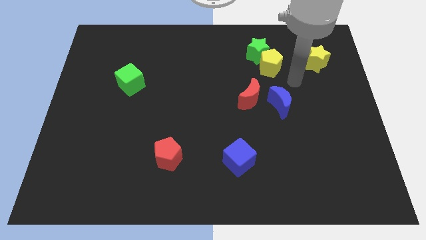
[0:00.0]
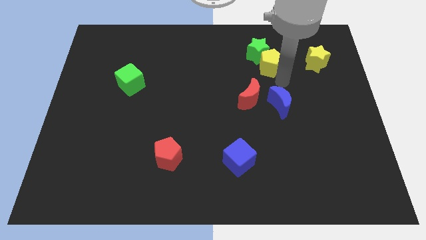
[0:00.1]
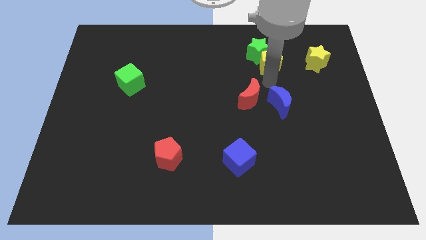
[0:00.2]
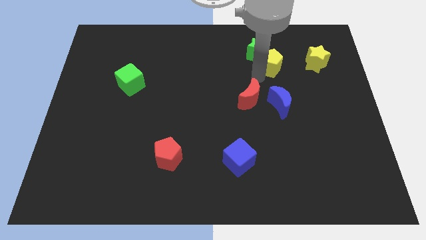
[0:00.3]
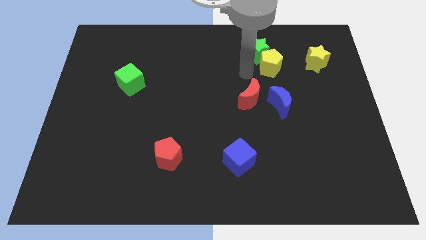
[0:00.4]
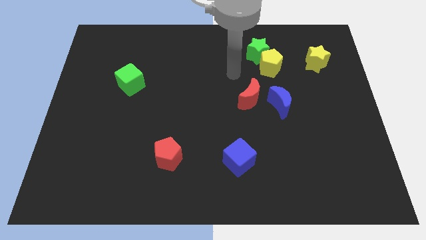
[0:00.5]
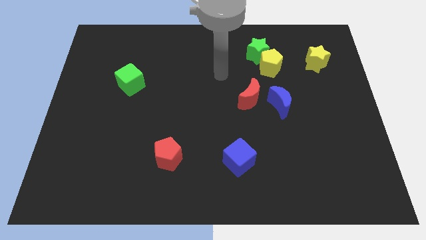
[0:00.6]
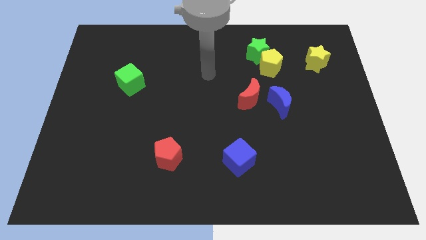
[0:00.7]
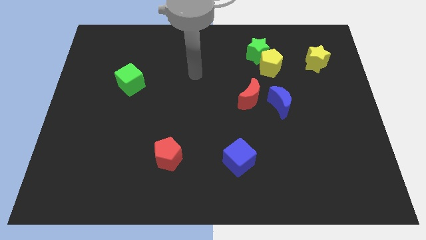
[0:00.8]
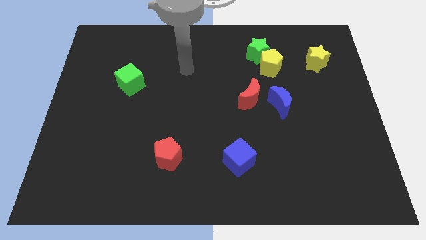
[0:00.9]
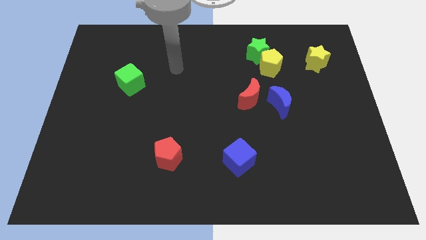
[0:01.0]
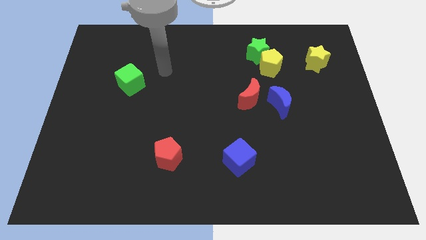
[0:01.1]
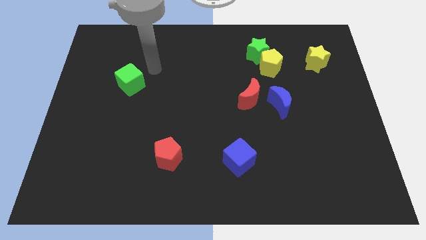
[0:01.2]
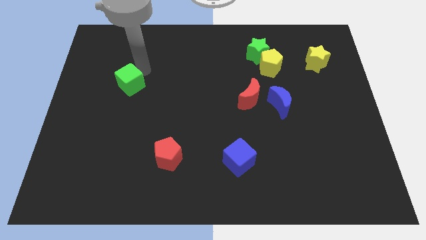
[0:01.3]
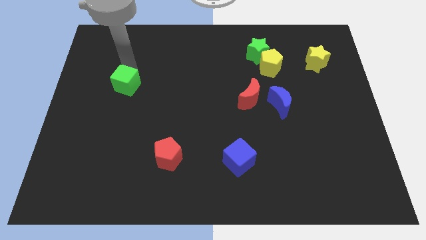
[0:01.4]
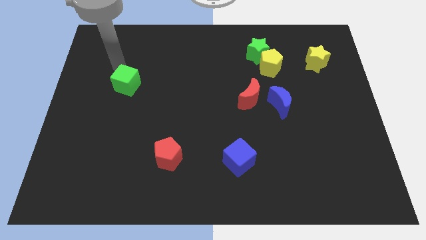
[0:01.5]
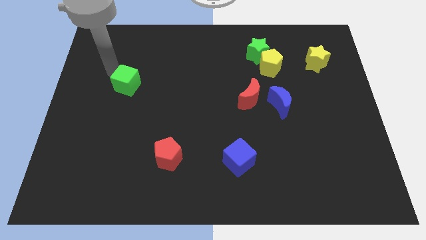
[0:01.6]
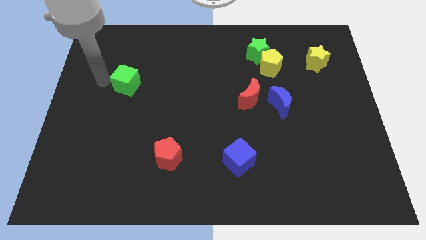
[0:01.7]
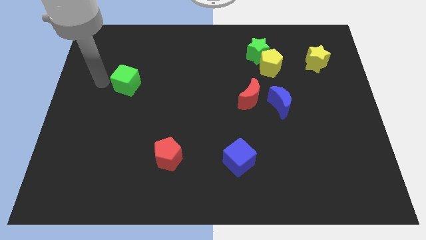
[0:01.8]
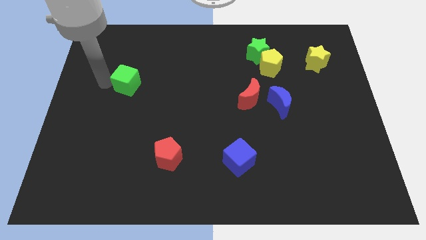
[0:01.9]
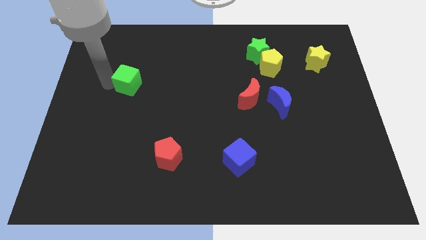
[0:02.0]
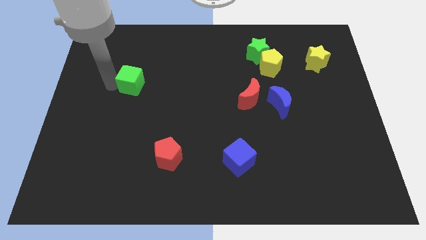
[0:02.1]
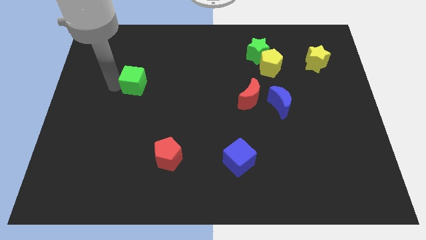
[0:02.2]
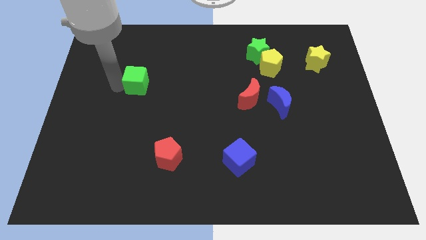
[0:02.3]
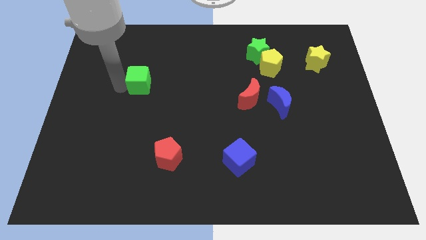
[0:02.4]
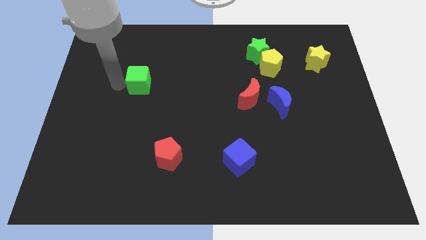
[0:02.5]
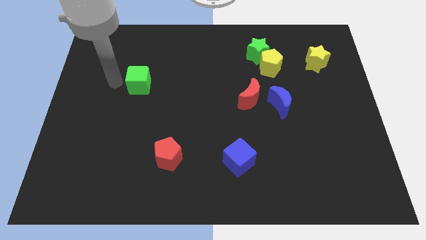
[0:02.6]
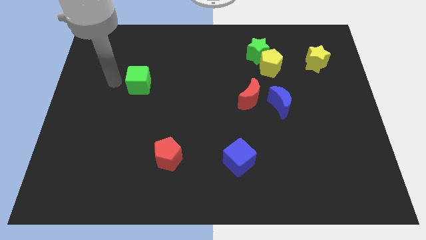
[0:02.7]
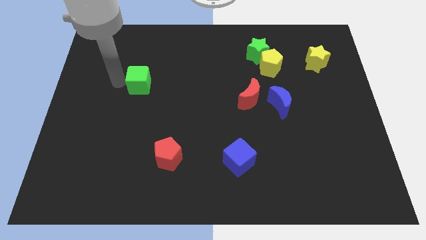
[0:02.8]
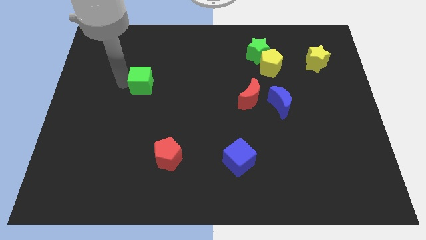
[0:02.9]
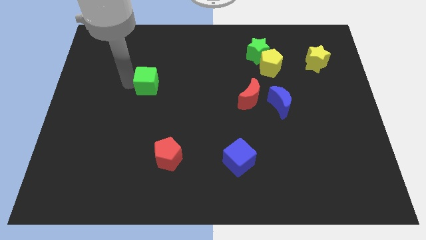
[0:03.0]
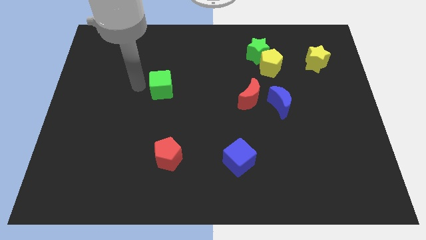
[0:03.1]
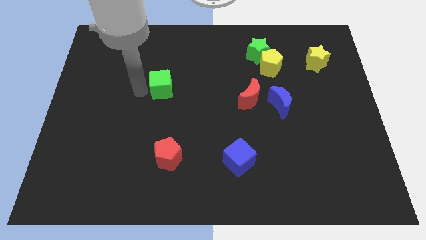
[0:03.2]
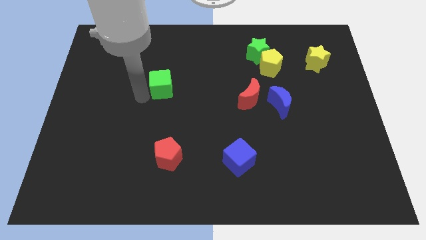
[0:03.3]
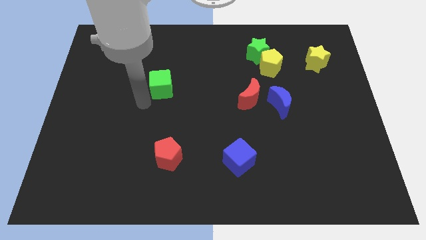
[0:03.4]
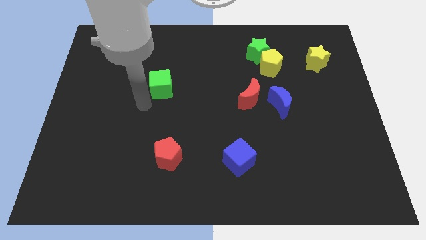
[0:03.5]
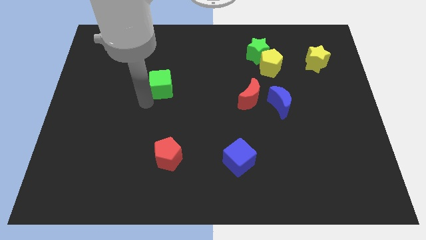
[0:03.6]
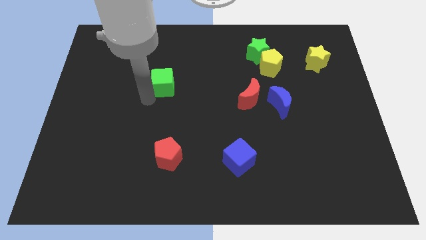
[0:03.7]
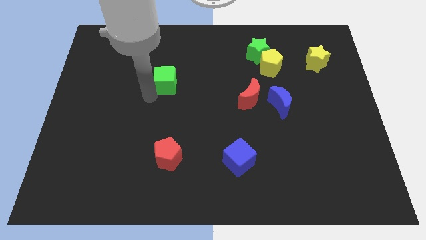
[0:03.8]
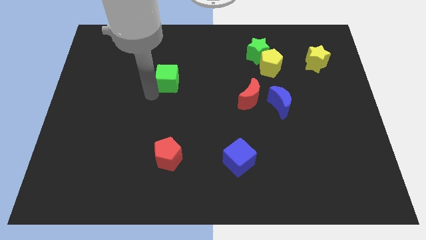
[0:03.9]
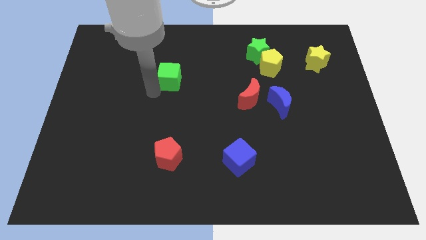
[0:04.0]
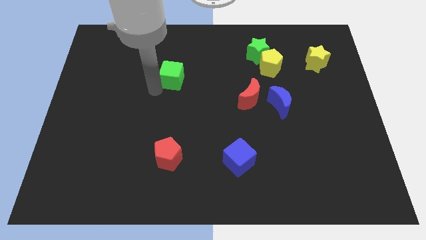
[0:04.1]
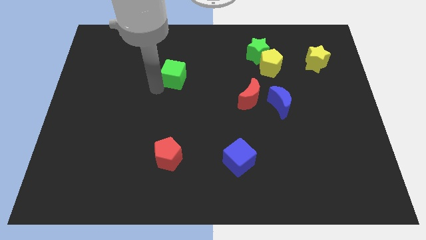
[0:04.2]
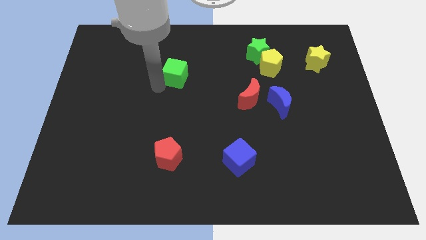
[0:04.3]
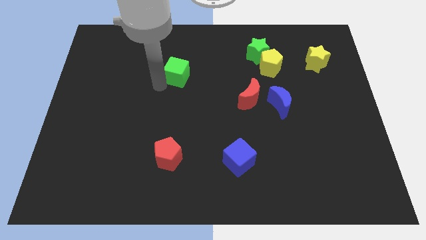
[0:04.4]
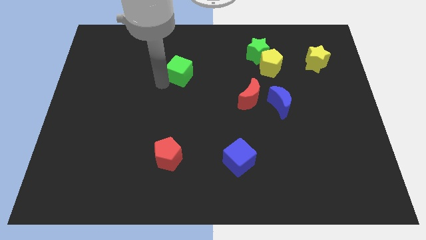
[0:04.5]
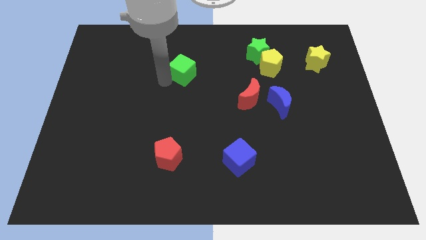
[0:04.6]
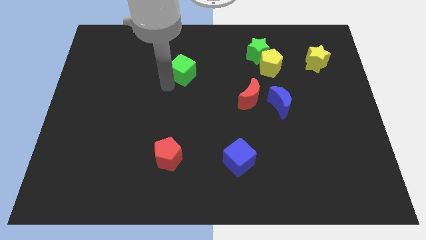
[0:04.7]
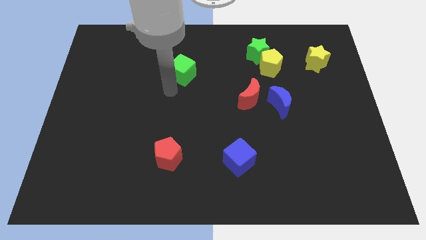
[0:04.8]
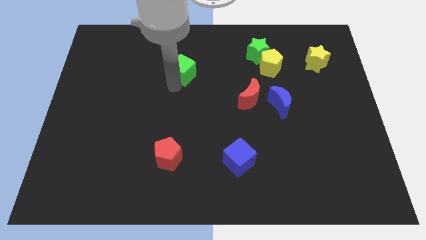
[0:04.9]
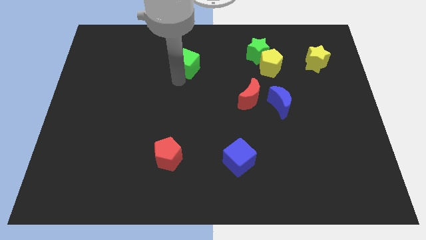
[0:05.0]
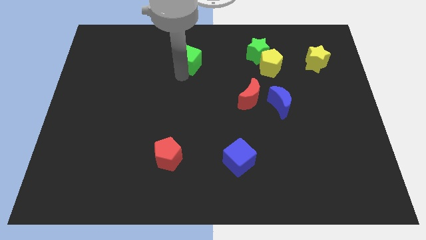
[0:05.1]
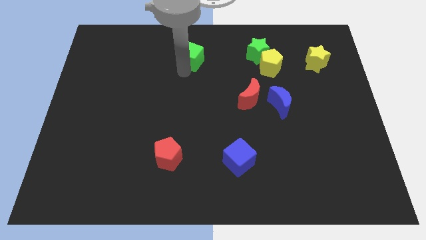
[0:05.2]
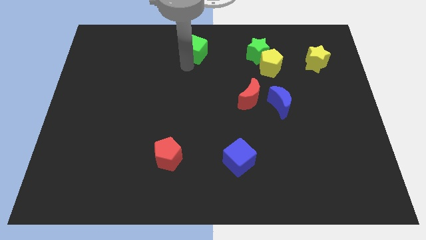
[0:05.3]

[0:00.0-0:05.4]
push the green cube to the top

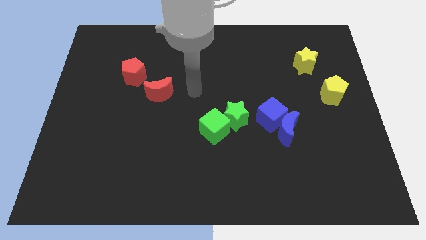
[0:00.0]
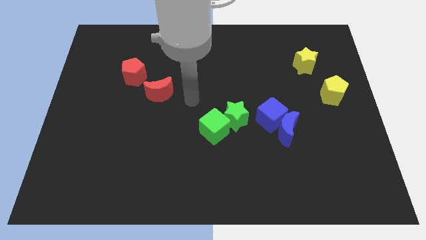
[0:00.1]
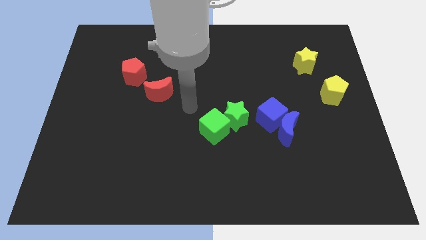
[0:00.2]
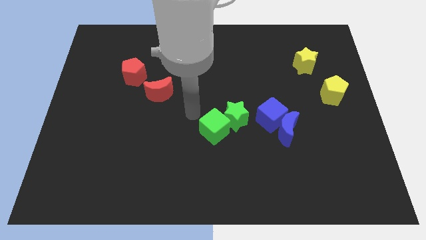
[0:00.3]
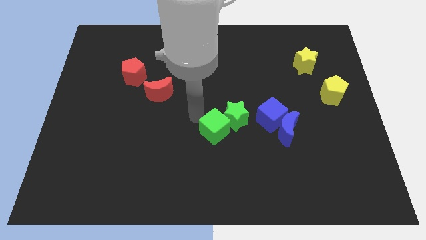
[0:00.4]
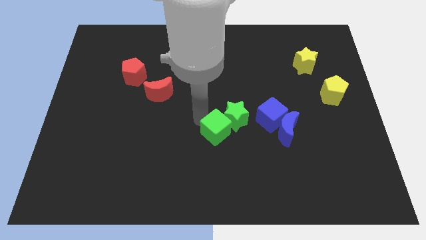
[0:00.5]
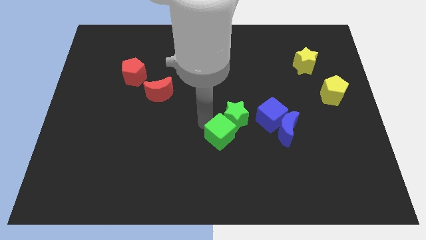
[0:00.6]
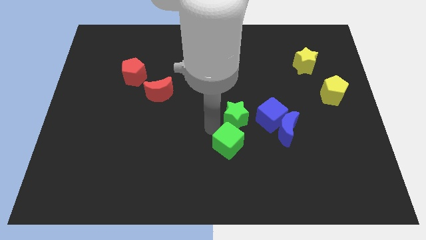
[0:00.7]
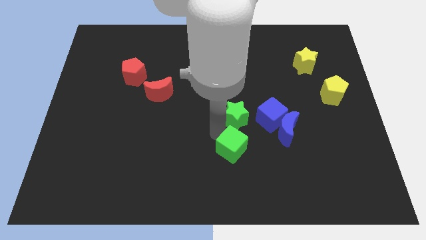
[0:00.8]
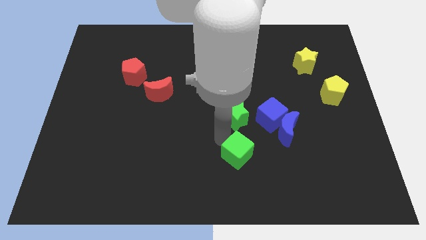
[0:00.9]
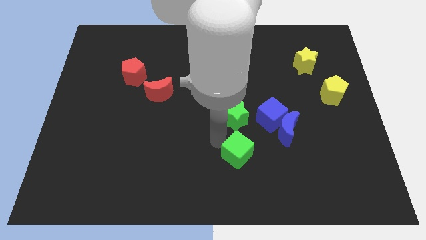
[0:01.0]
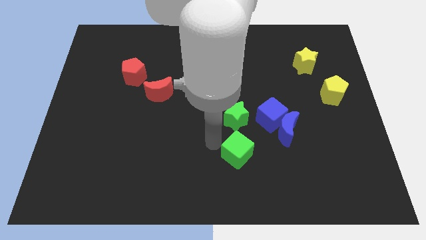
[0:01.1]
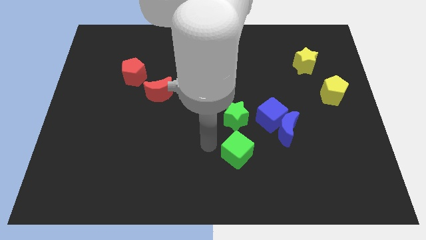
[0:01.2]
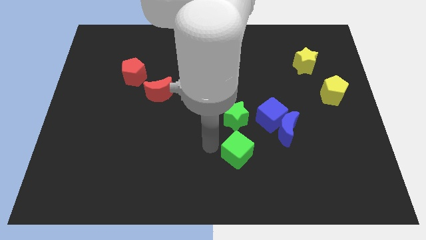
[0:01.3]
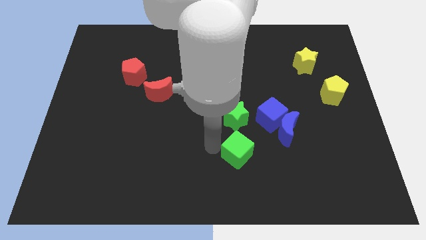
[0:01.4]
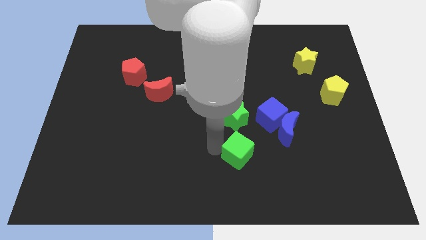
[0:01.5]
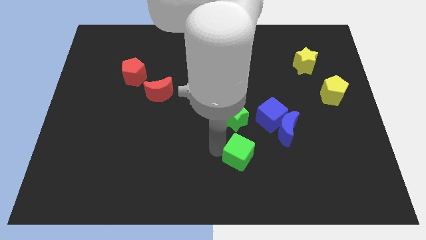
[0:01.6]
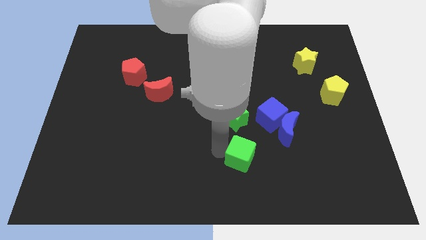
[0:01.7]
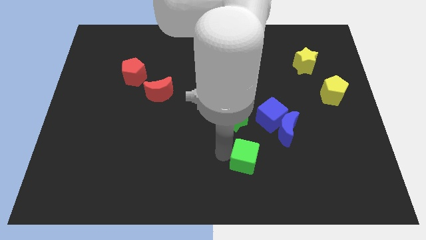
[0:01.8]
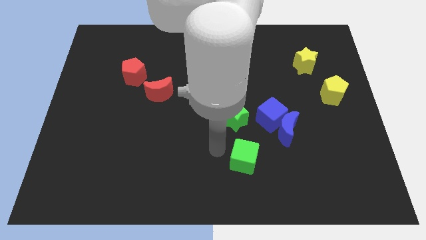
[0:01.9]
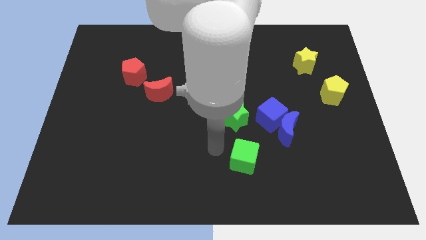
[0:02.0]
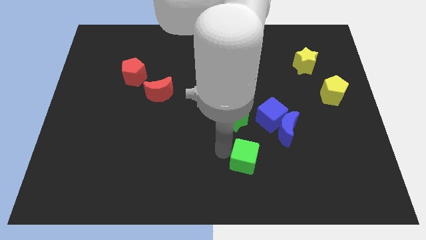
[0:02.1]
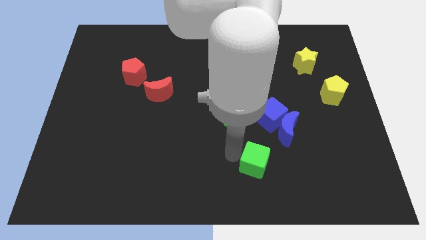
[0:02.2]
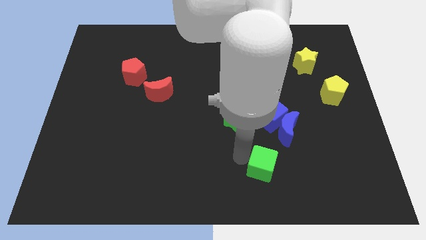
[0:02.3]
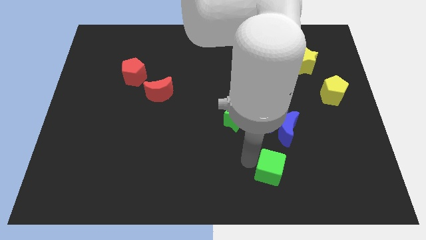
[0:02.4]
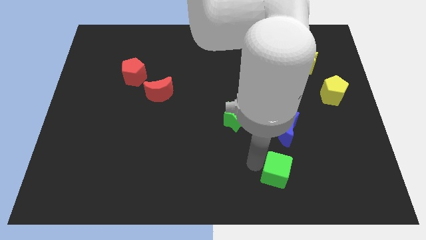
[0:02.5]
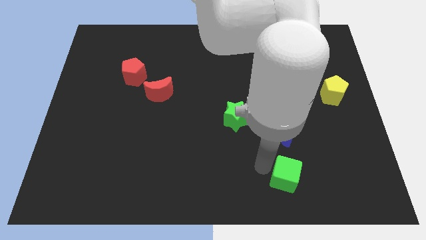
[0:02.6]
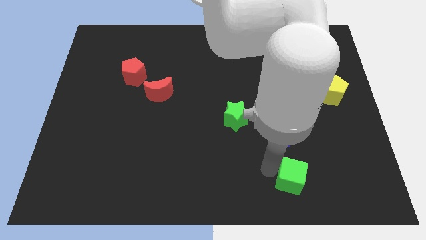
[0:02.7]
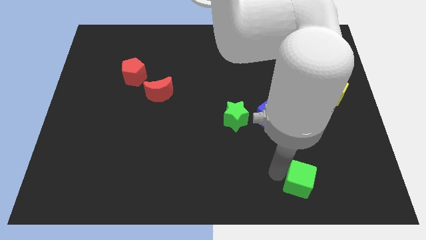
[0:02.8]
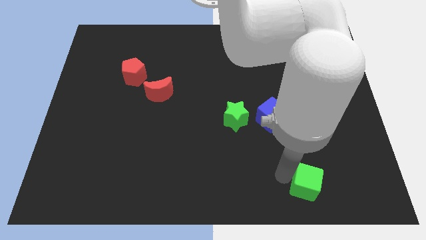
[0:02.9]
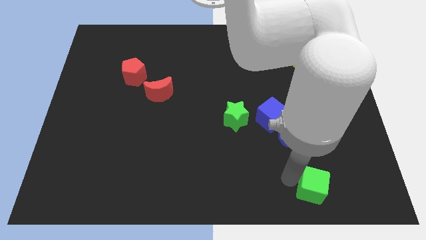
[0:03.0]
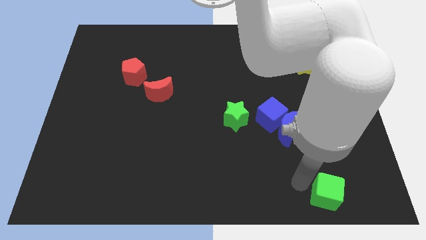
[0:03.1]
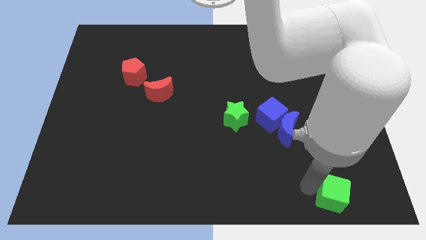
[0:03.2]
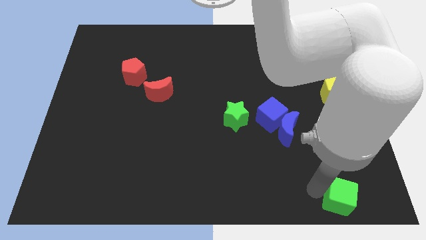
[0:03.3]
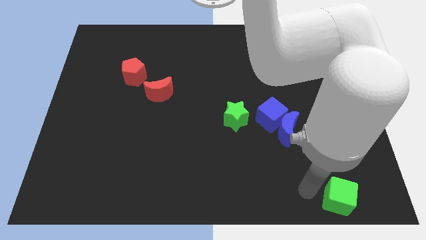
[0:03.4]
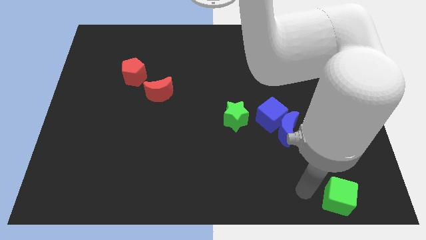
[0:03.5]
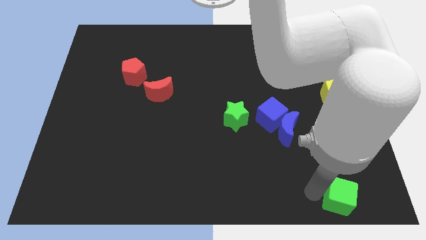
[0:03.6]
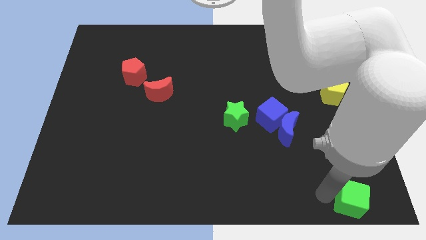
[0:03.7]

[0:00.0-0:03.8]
slide the green cube to the bottom right of the board
